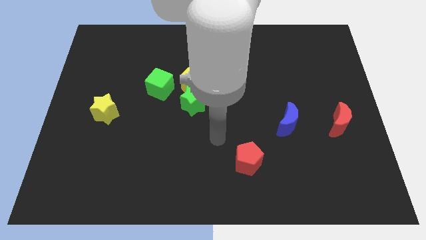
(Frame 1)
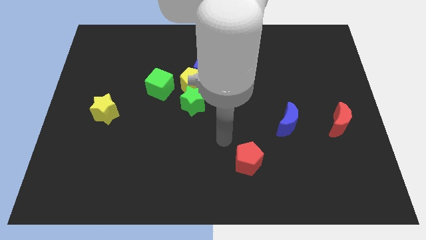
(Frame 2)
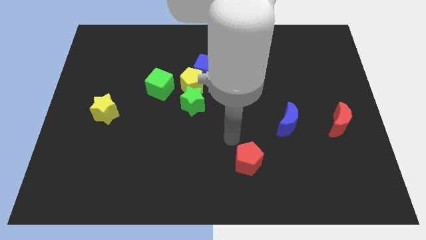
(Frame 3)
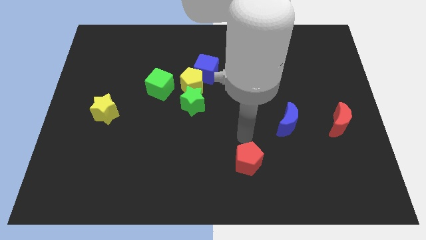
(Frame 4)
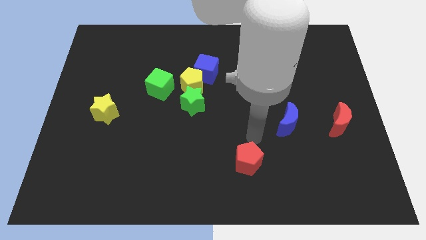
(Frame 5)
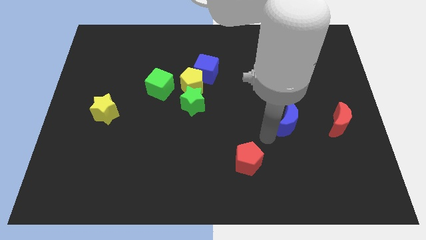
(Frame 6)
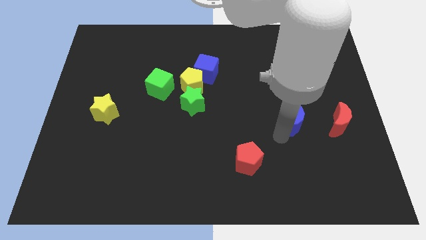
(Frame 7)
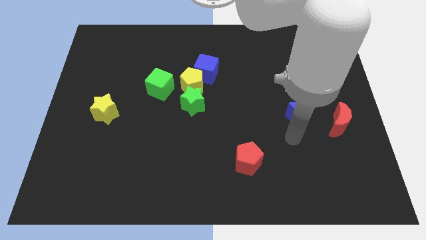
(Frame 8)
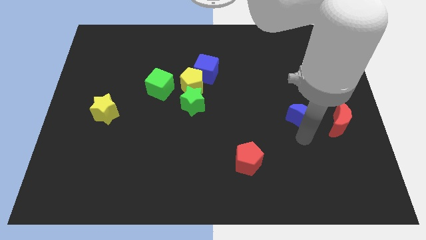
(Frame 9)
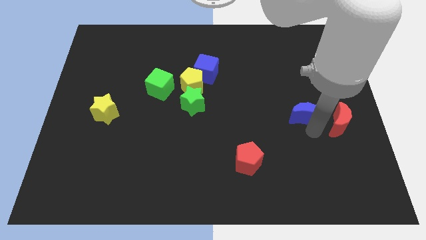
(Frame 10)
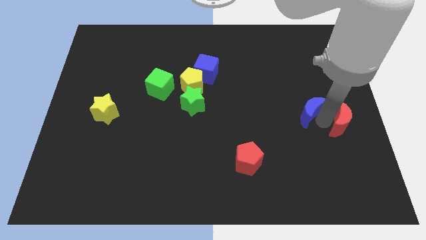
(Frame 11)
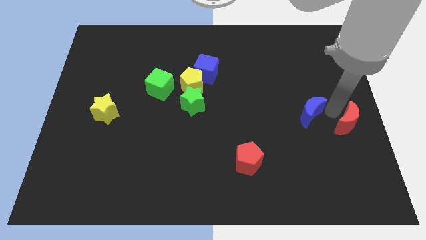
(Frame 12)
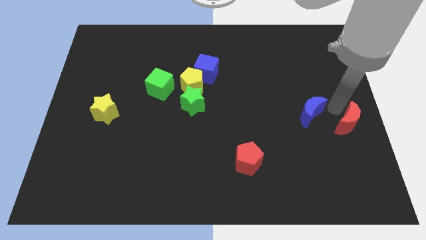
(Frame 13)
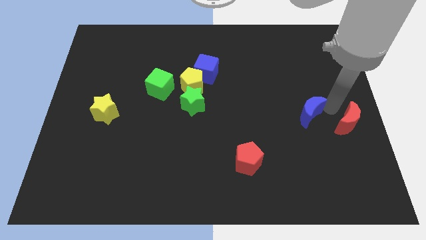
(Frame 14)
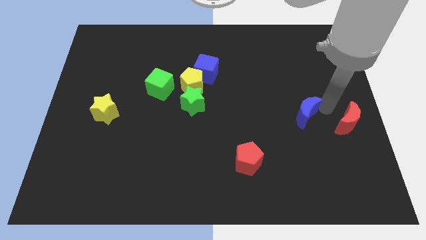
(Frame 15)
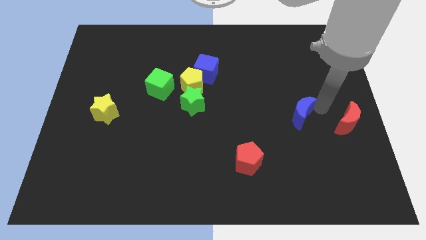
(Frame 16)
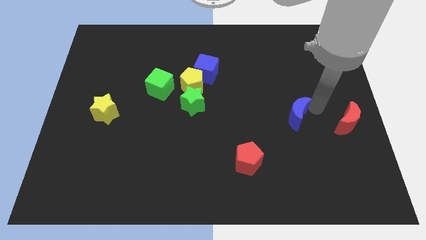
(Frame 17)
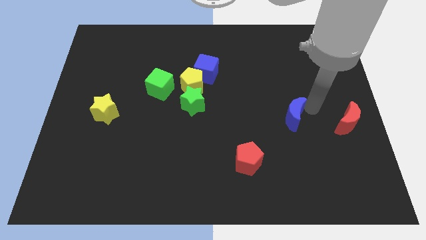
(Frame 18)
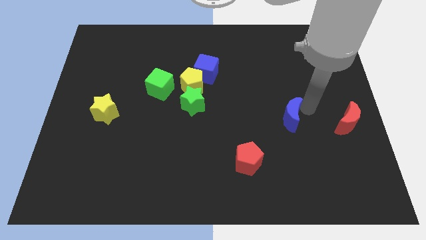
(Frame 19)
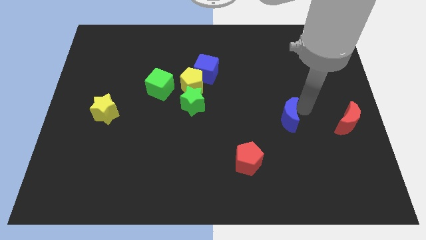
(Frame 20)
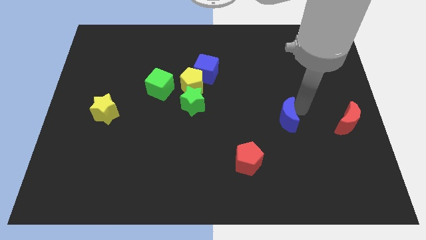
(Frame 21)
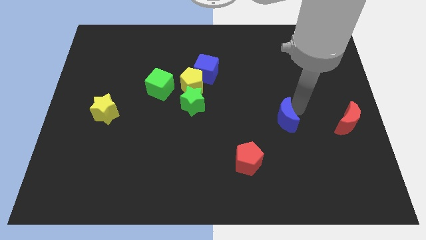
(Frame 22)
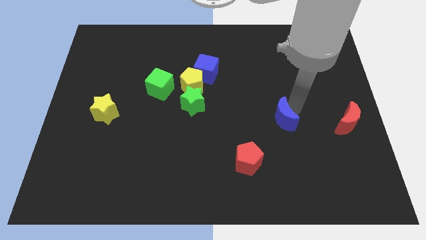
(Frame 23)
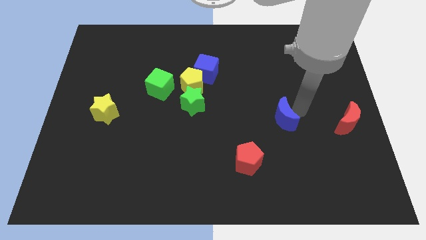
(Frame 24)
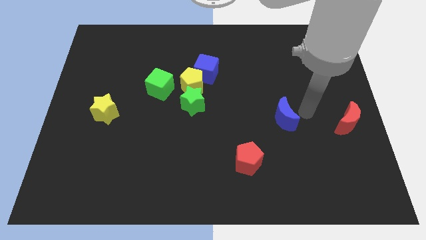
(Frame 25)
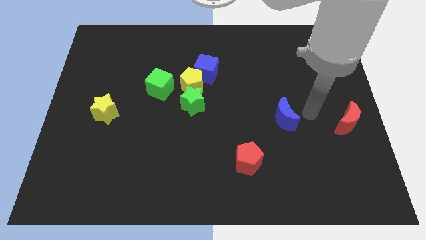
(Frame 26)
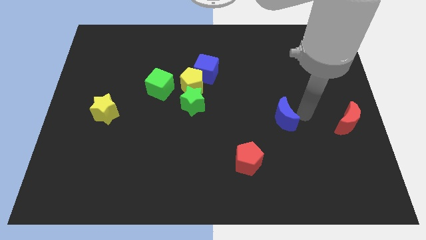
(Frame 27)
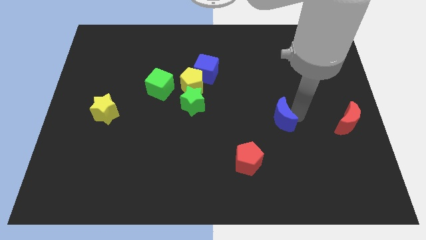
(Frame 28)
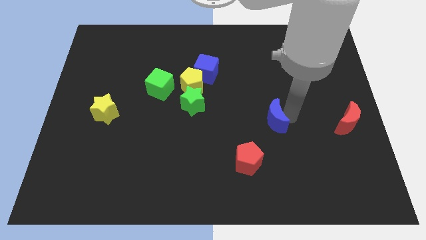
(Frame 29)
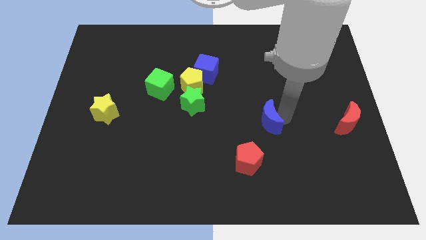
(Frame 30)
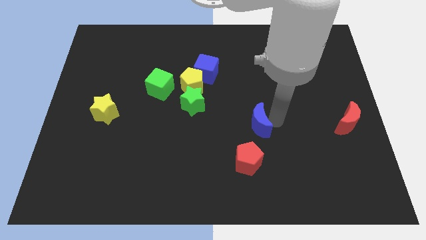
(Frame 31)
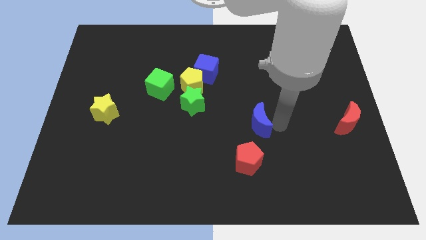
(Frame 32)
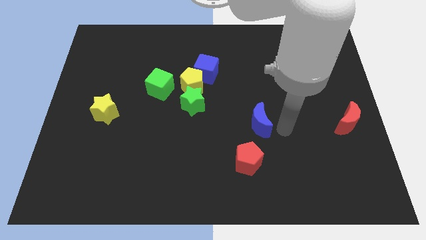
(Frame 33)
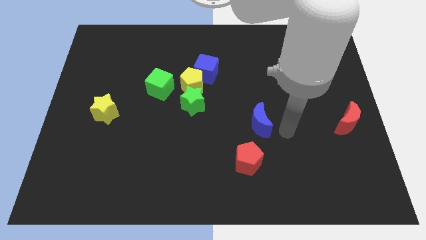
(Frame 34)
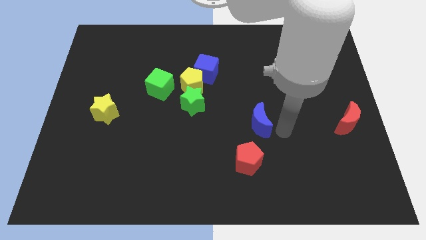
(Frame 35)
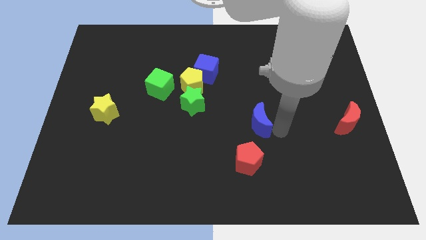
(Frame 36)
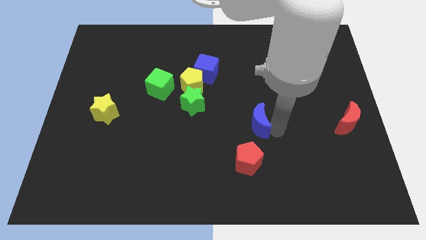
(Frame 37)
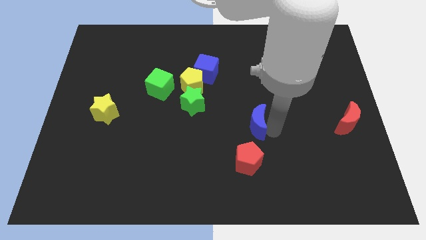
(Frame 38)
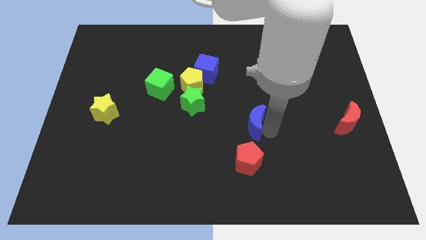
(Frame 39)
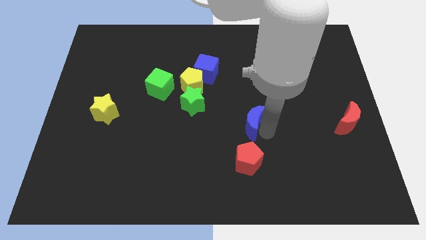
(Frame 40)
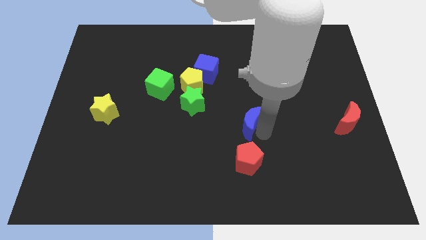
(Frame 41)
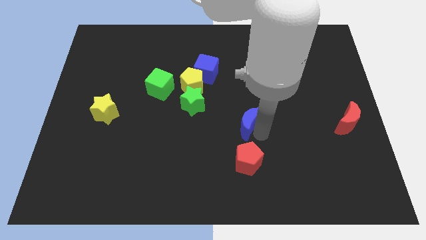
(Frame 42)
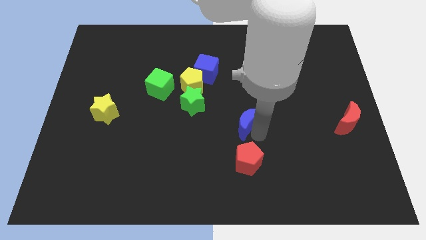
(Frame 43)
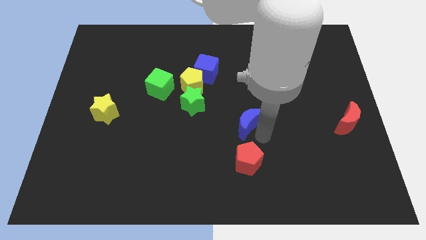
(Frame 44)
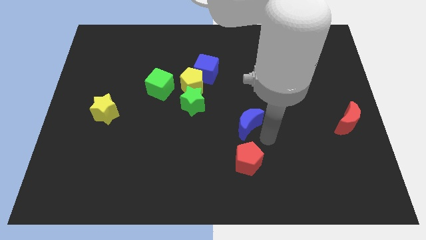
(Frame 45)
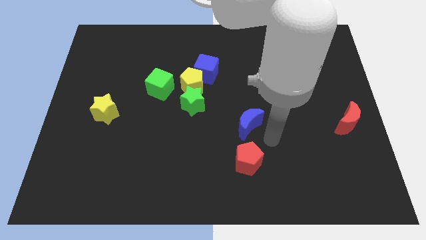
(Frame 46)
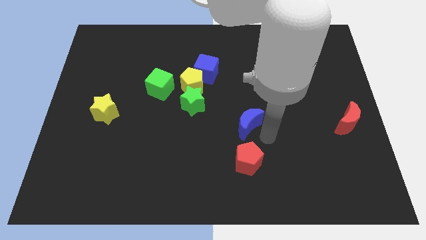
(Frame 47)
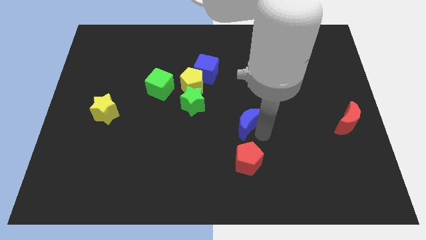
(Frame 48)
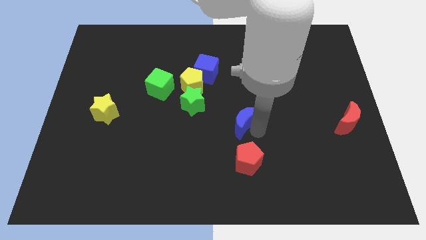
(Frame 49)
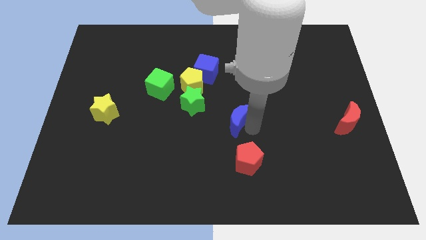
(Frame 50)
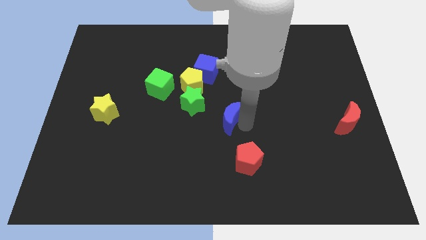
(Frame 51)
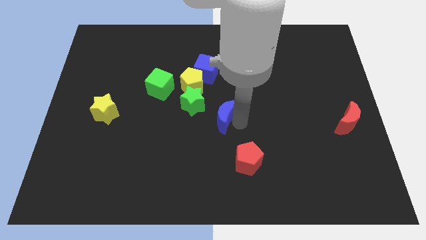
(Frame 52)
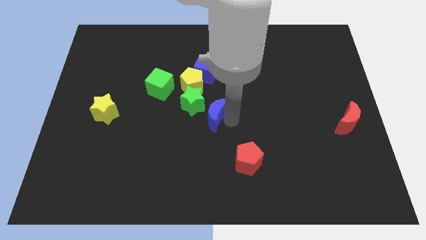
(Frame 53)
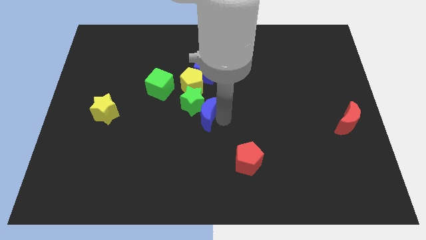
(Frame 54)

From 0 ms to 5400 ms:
push the blue moon next to the green star

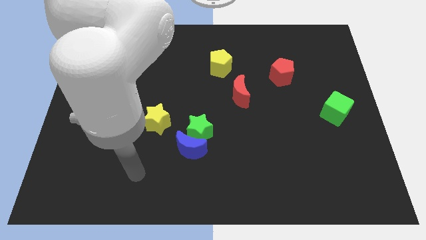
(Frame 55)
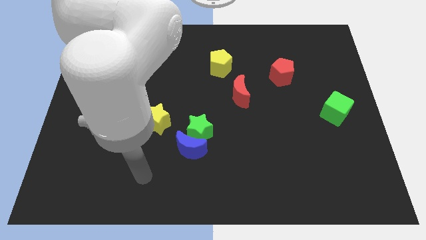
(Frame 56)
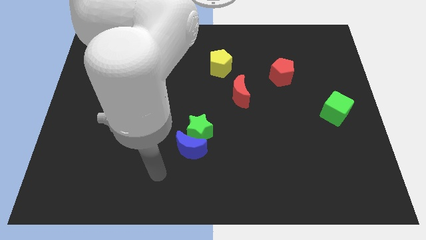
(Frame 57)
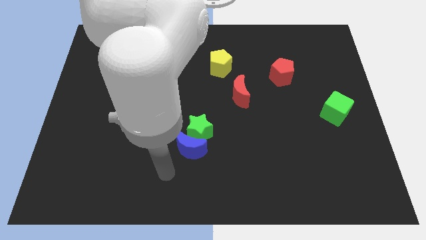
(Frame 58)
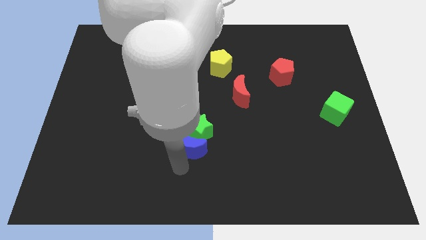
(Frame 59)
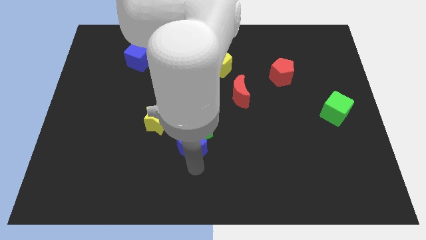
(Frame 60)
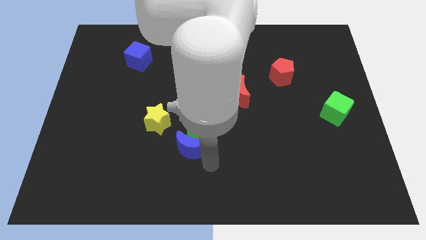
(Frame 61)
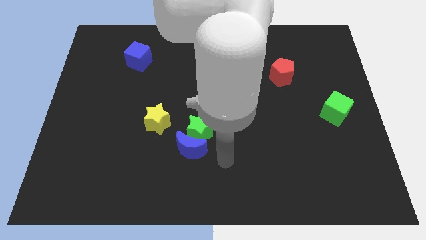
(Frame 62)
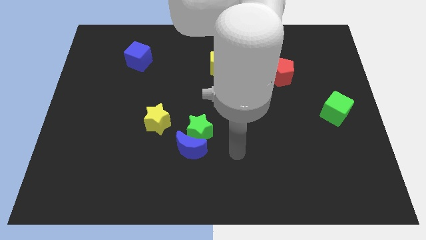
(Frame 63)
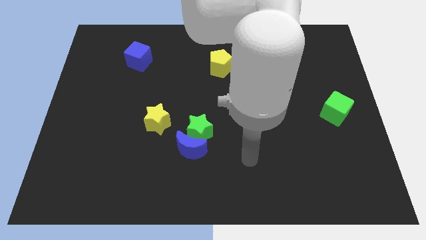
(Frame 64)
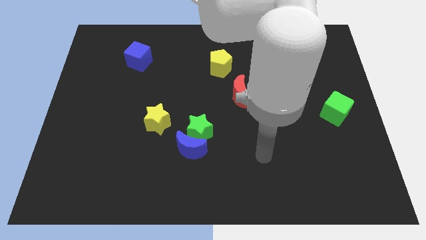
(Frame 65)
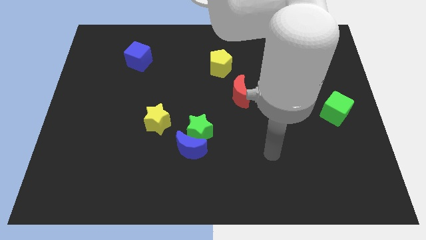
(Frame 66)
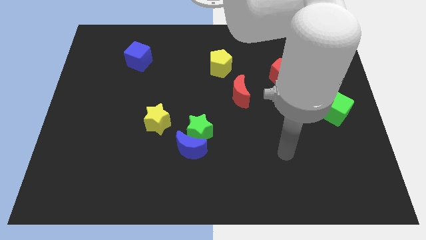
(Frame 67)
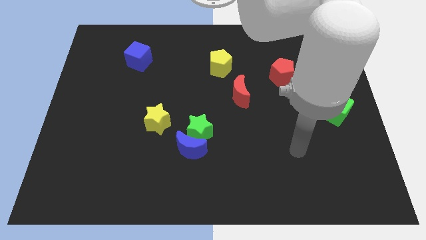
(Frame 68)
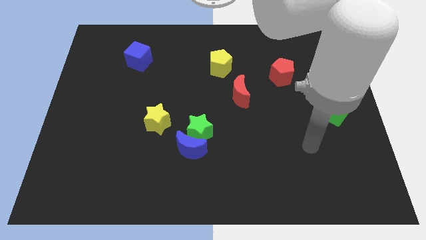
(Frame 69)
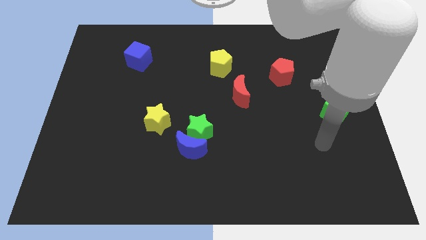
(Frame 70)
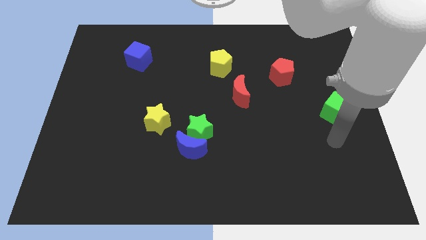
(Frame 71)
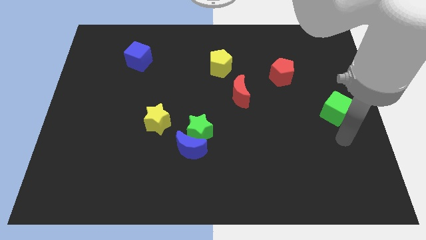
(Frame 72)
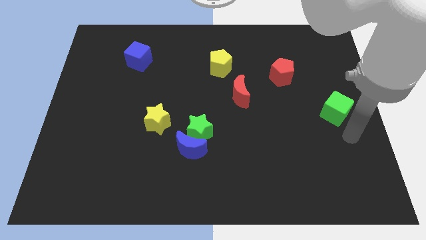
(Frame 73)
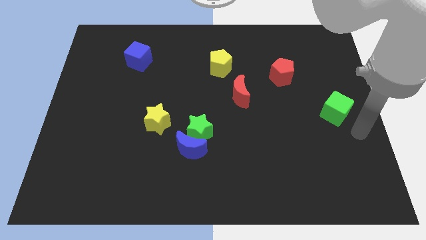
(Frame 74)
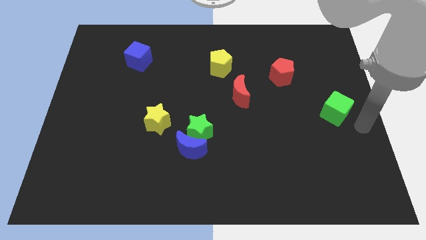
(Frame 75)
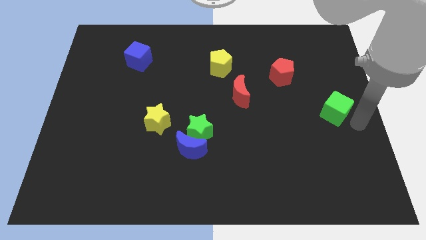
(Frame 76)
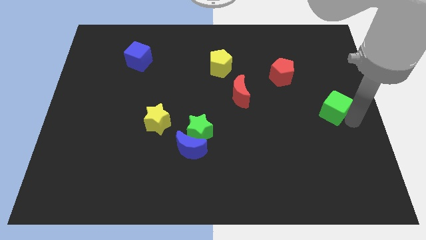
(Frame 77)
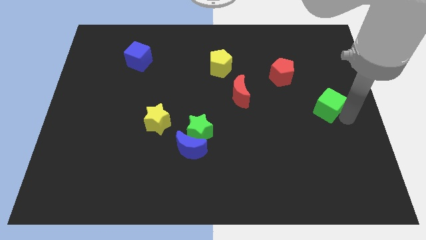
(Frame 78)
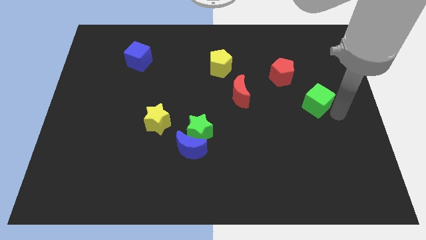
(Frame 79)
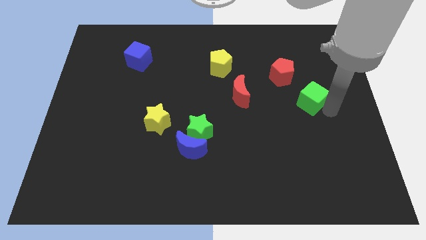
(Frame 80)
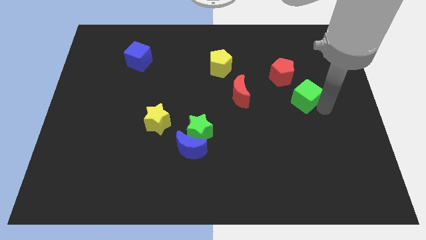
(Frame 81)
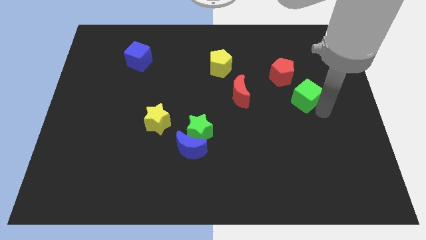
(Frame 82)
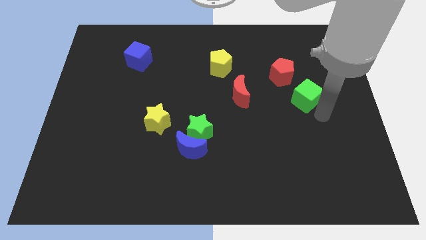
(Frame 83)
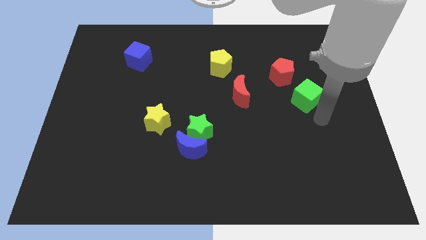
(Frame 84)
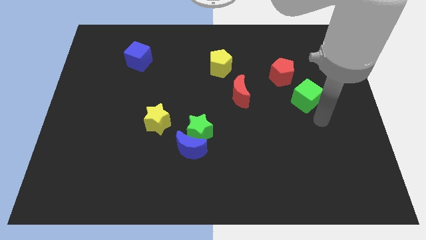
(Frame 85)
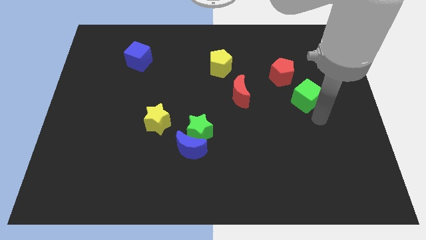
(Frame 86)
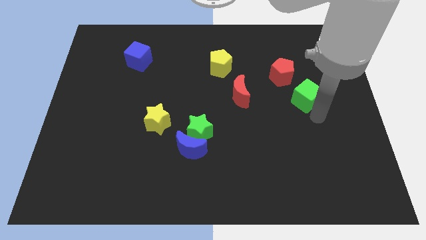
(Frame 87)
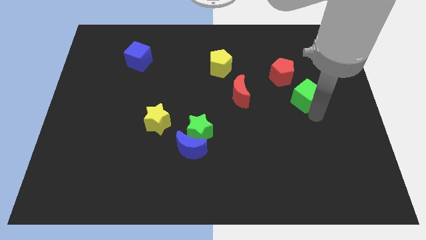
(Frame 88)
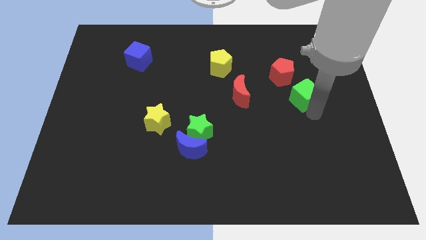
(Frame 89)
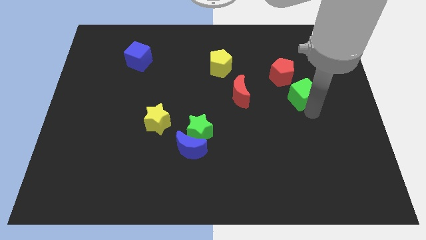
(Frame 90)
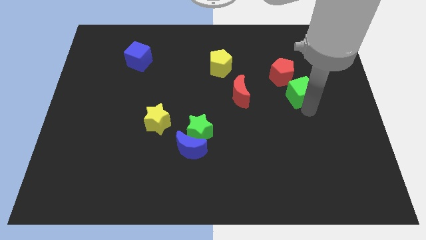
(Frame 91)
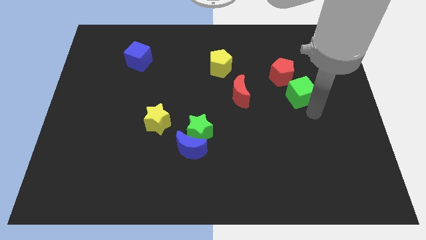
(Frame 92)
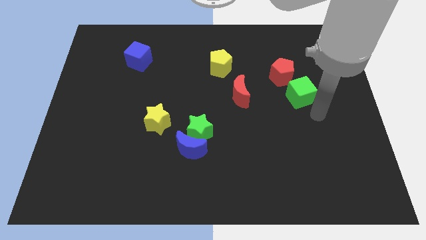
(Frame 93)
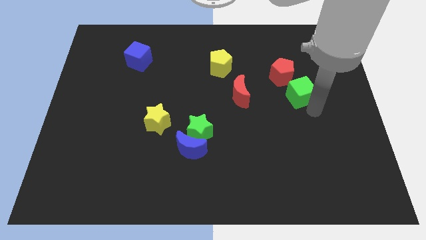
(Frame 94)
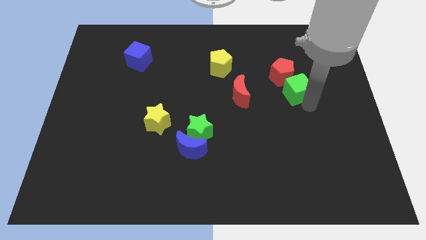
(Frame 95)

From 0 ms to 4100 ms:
move the green cube next to the red pentagon
